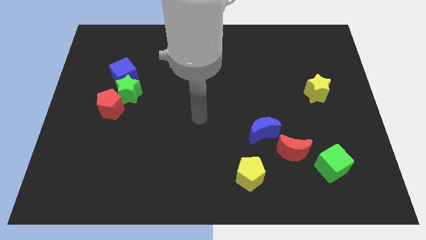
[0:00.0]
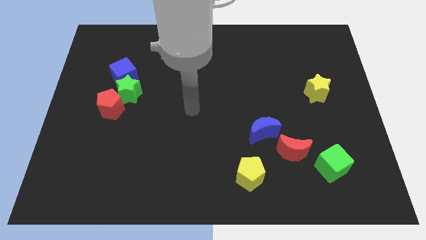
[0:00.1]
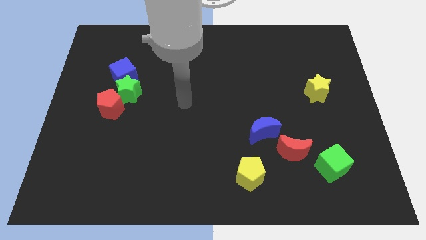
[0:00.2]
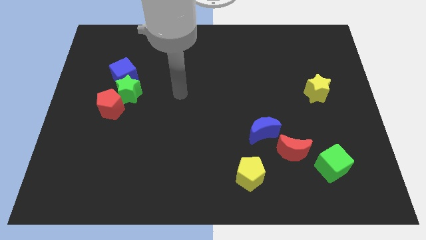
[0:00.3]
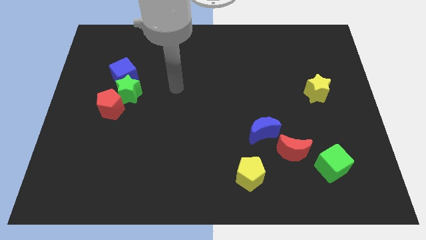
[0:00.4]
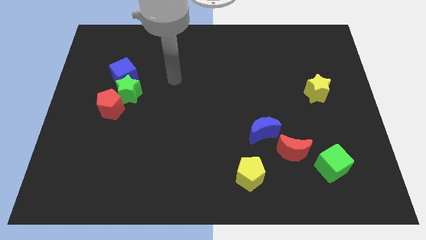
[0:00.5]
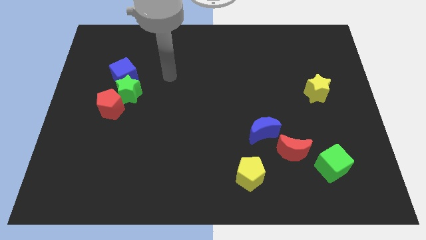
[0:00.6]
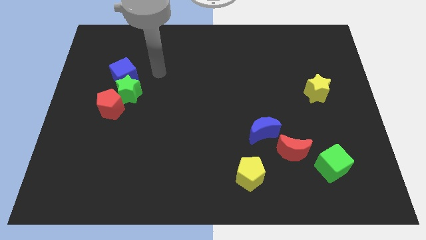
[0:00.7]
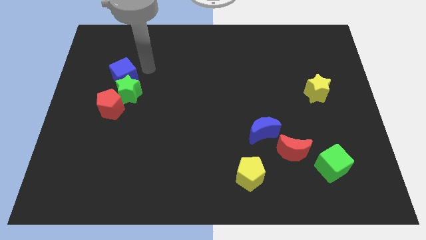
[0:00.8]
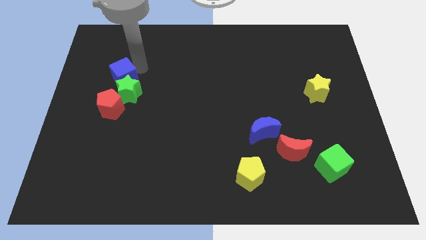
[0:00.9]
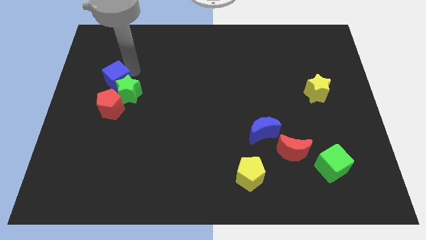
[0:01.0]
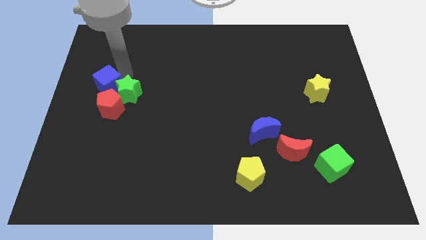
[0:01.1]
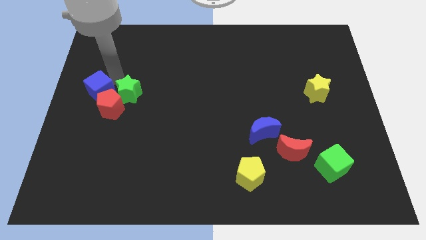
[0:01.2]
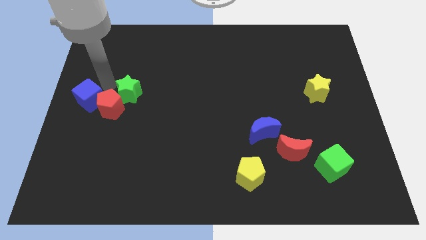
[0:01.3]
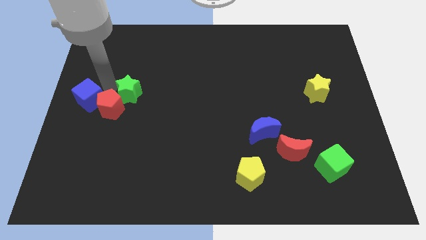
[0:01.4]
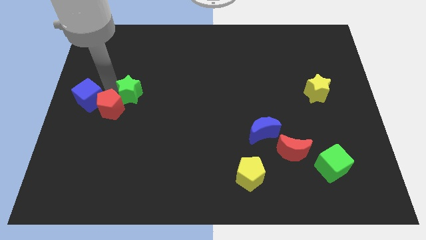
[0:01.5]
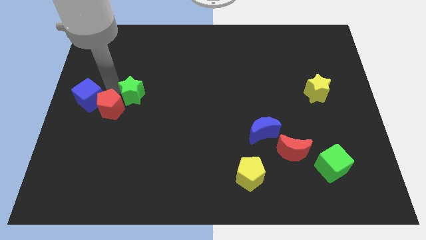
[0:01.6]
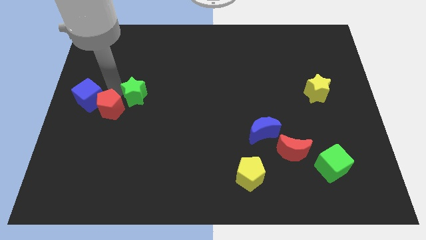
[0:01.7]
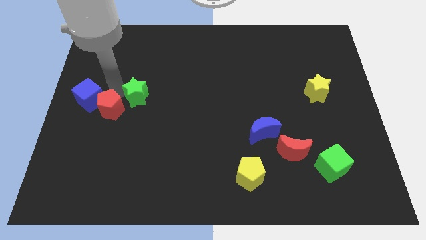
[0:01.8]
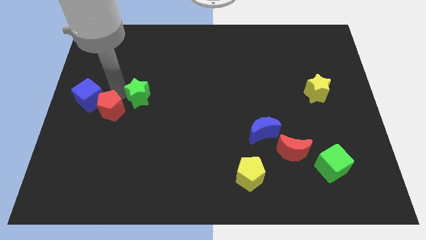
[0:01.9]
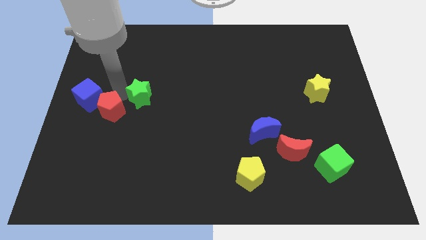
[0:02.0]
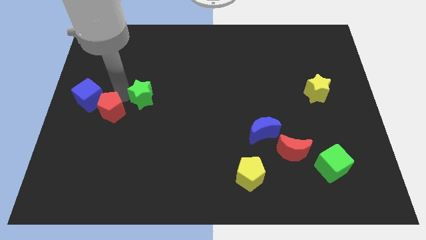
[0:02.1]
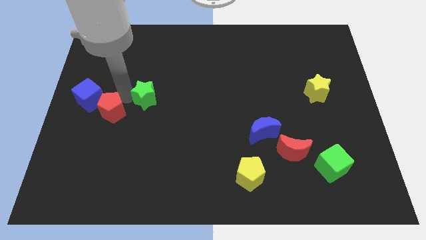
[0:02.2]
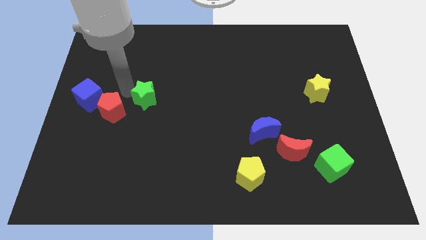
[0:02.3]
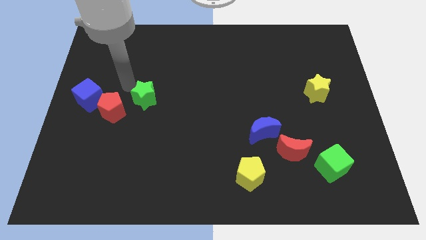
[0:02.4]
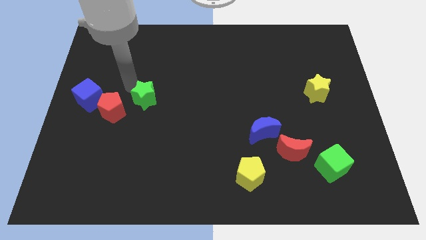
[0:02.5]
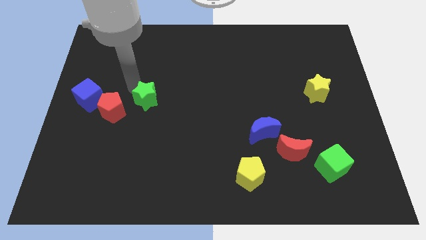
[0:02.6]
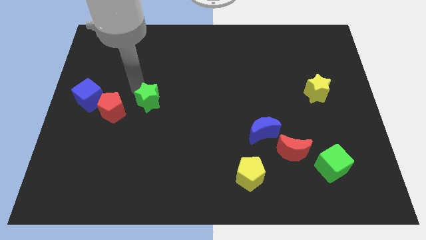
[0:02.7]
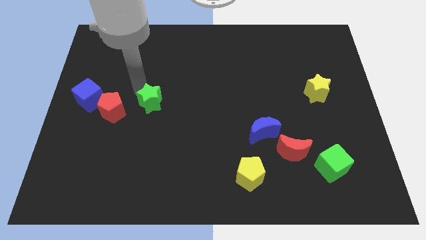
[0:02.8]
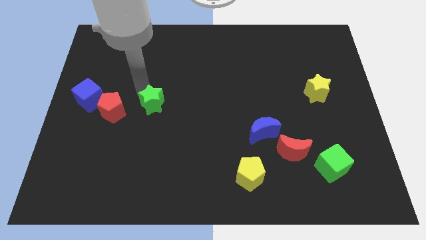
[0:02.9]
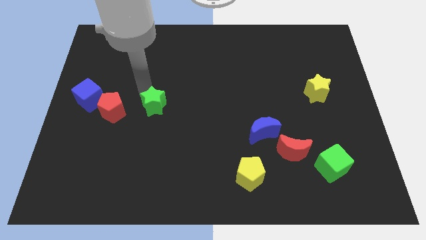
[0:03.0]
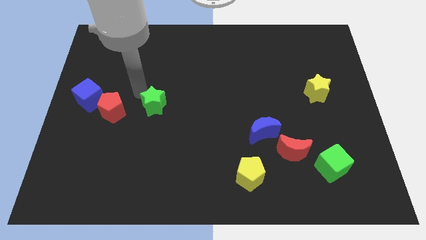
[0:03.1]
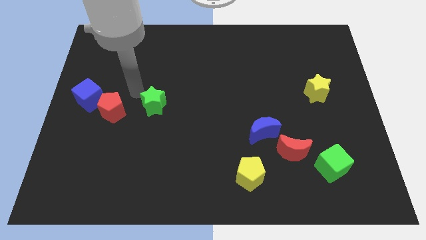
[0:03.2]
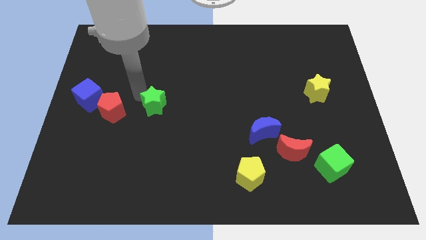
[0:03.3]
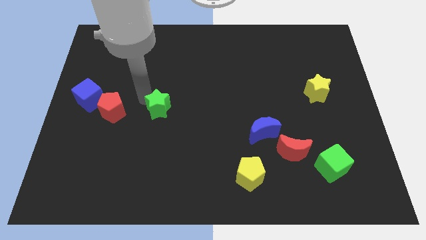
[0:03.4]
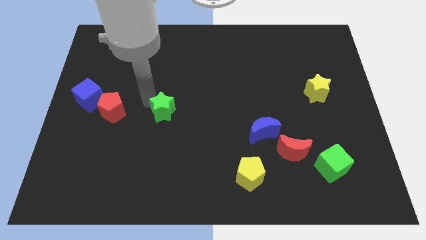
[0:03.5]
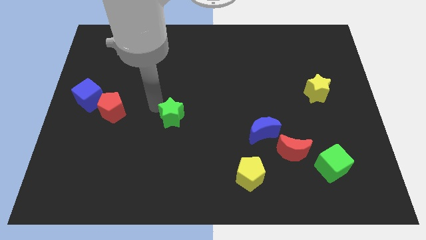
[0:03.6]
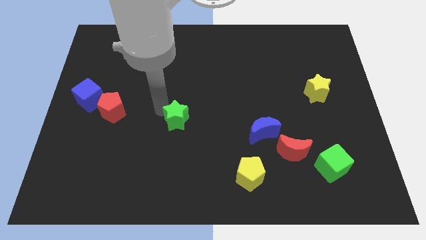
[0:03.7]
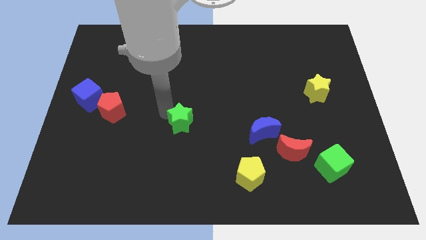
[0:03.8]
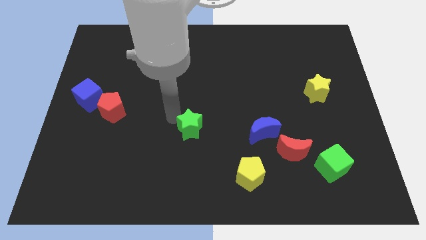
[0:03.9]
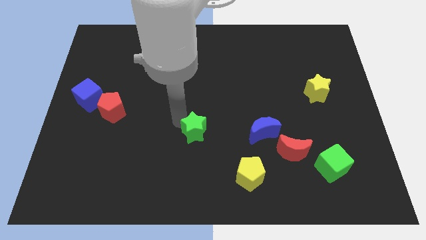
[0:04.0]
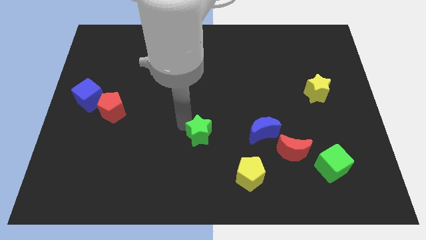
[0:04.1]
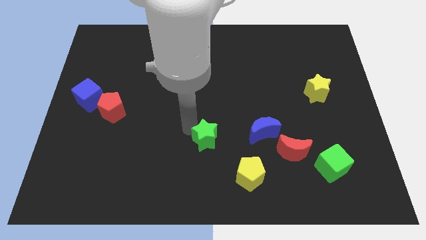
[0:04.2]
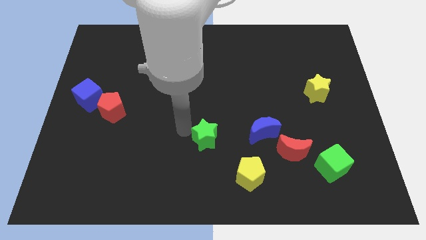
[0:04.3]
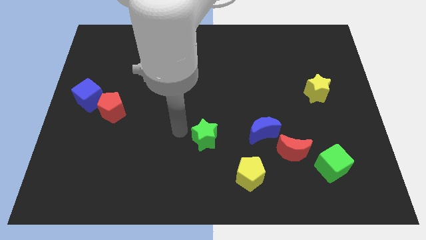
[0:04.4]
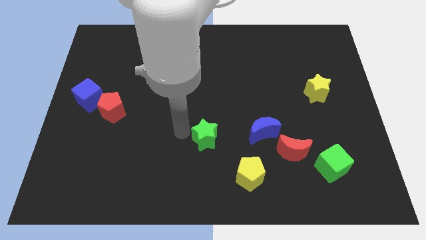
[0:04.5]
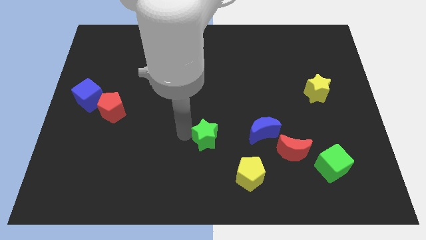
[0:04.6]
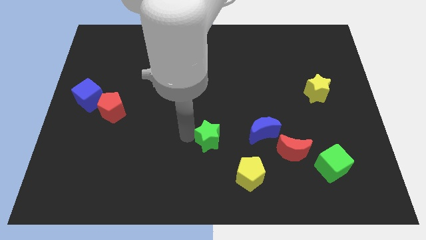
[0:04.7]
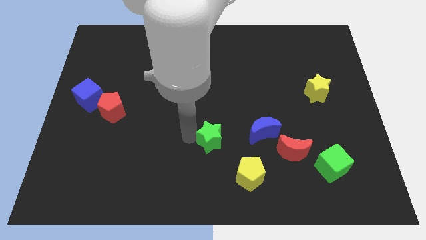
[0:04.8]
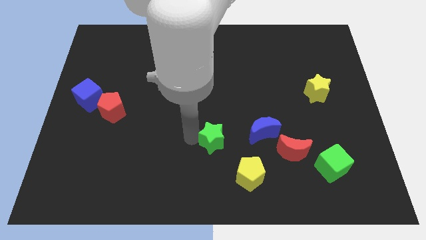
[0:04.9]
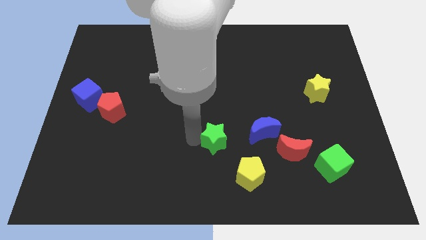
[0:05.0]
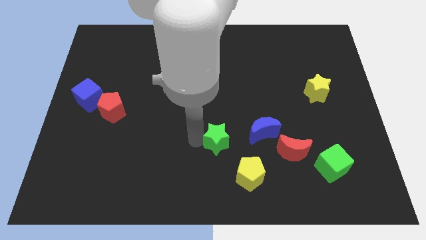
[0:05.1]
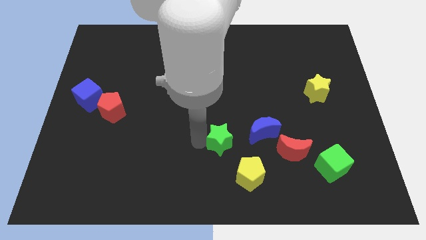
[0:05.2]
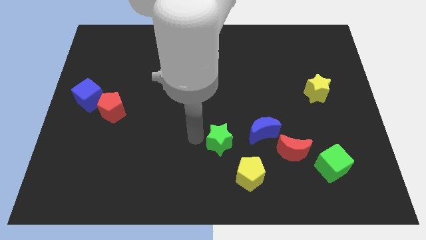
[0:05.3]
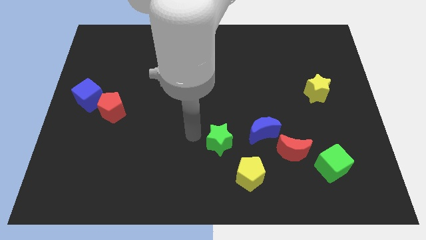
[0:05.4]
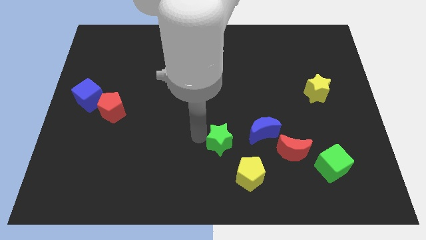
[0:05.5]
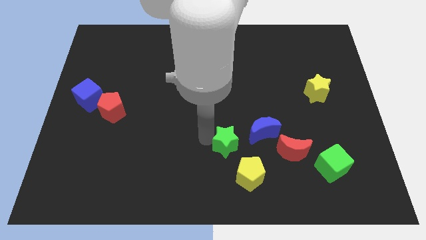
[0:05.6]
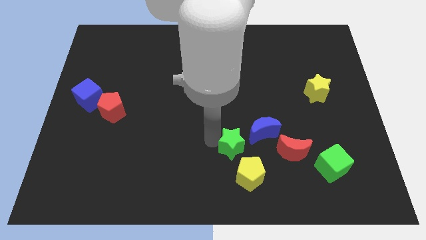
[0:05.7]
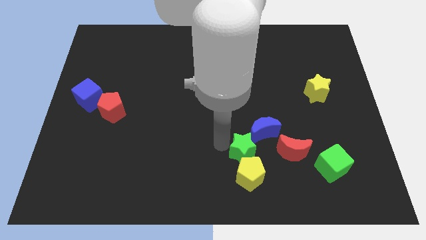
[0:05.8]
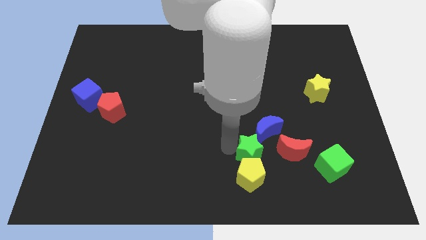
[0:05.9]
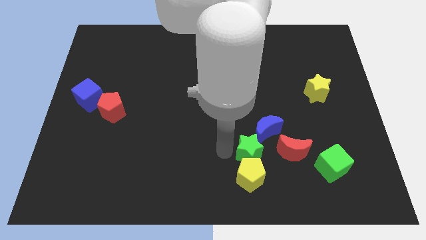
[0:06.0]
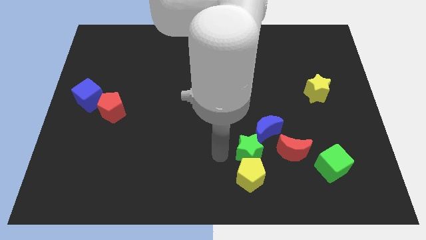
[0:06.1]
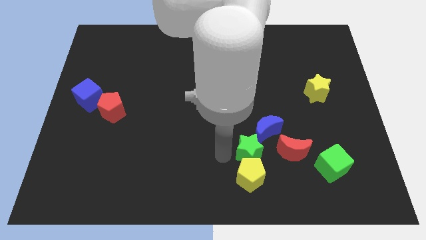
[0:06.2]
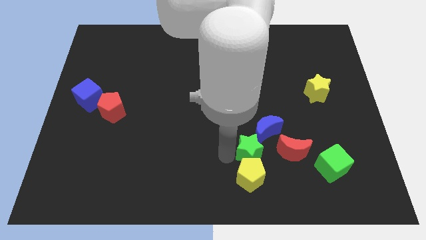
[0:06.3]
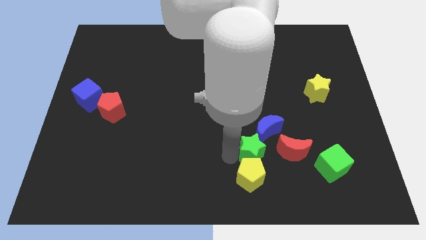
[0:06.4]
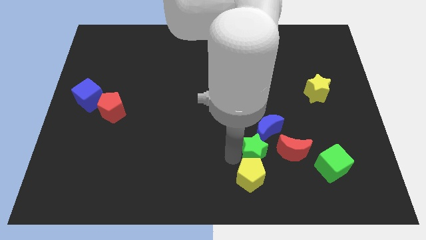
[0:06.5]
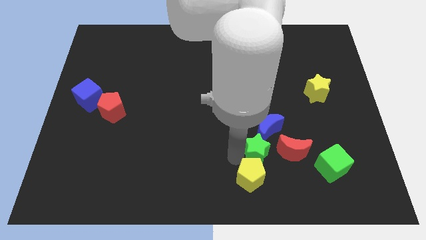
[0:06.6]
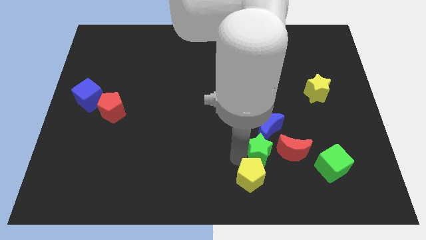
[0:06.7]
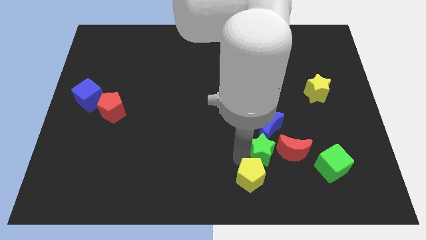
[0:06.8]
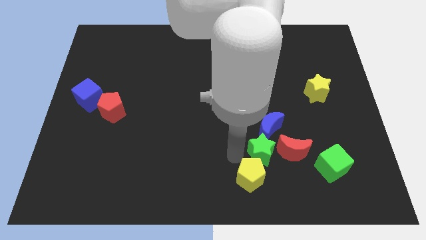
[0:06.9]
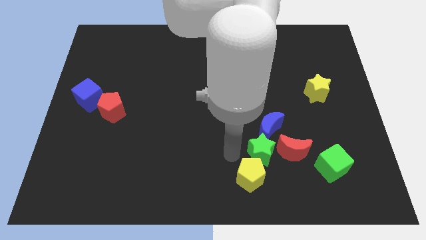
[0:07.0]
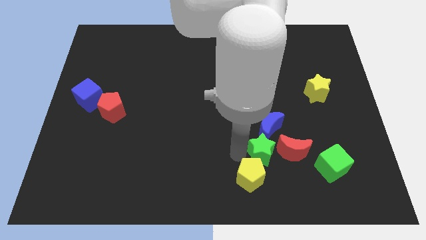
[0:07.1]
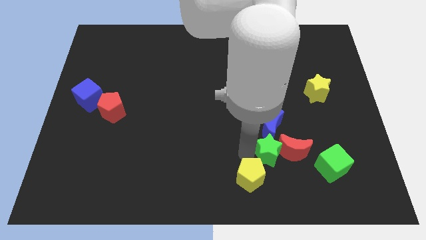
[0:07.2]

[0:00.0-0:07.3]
push the green star towards the red moon

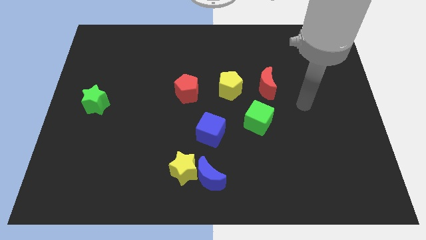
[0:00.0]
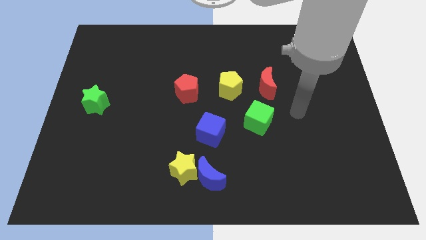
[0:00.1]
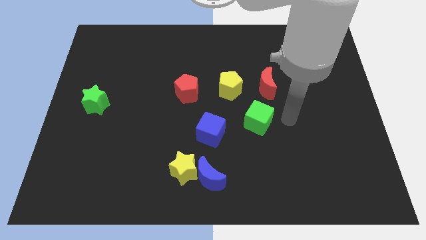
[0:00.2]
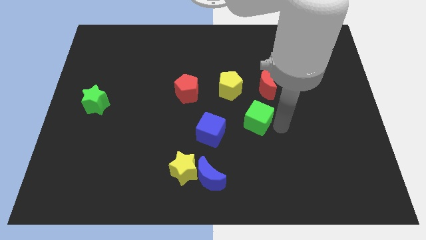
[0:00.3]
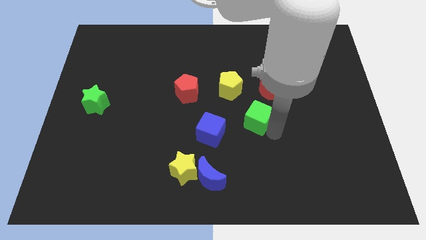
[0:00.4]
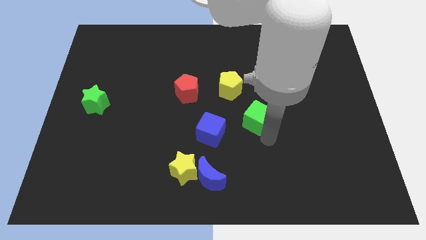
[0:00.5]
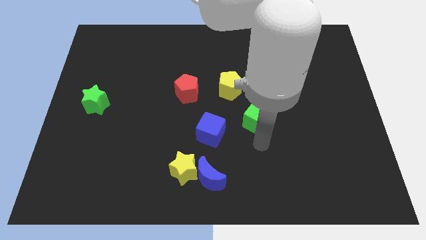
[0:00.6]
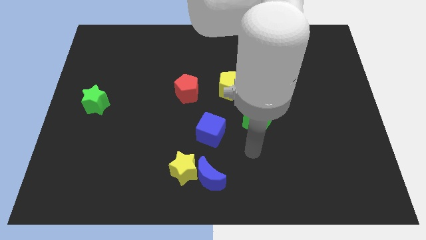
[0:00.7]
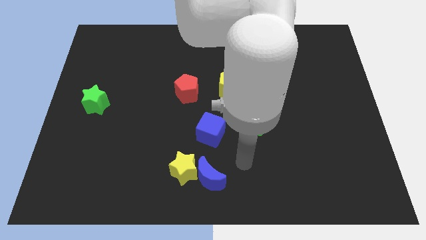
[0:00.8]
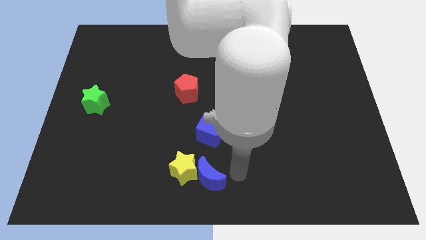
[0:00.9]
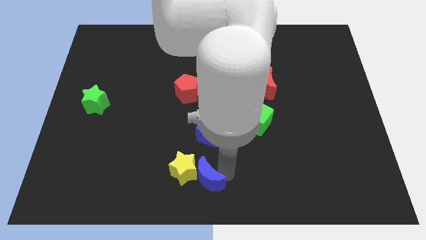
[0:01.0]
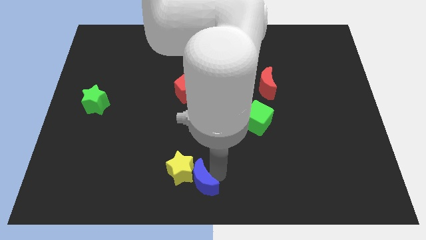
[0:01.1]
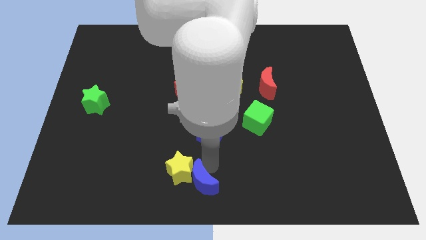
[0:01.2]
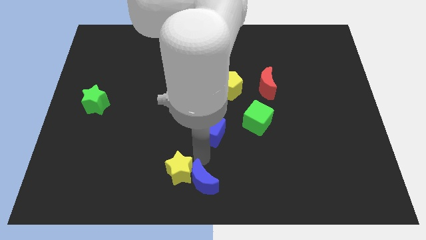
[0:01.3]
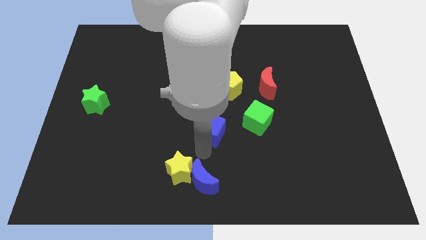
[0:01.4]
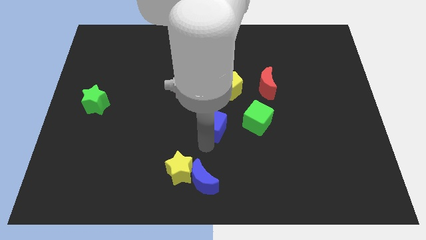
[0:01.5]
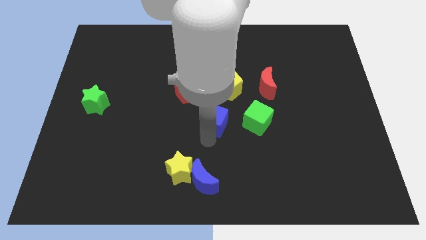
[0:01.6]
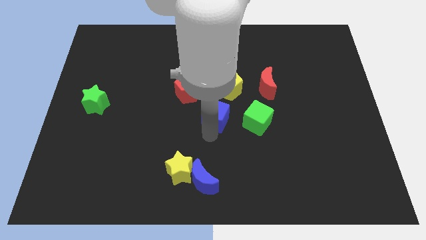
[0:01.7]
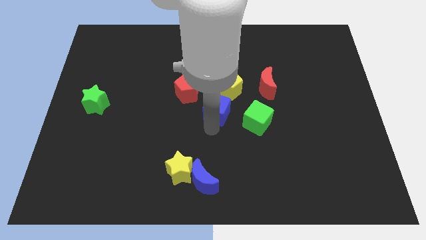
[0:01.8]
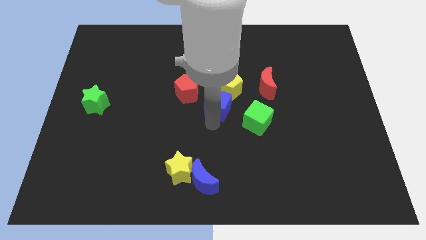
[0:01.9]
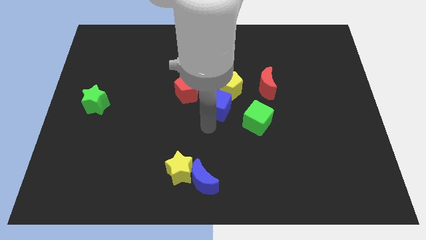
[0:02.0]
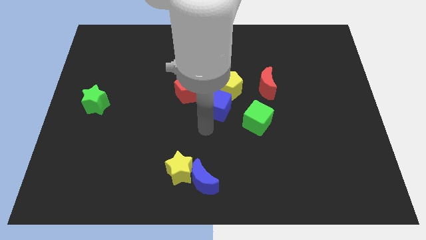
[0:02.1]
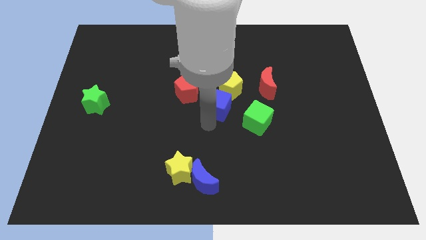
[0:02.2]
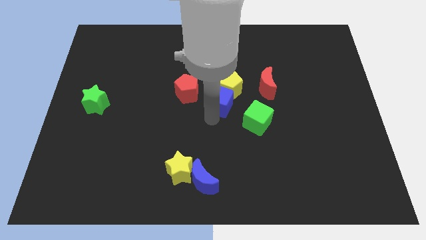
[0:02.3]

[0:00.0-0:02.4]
push the blue cube to the yellow pentagon
